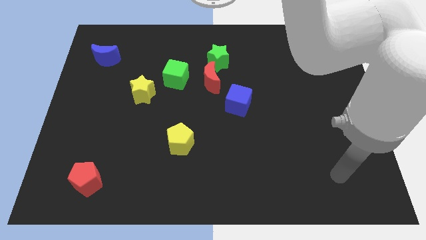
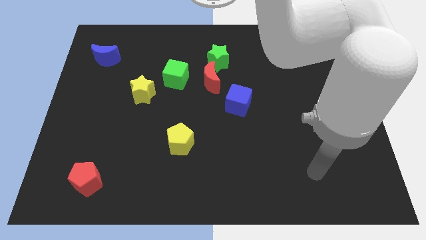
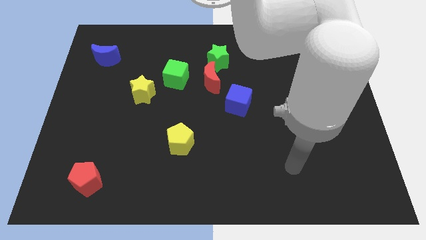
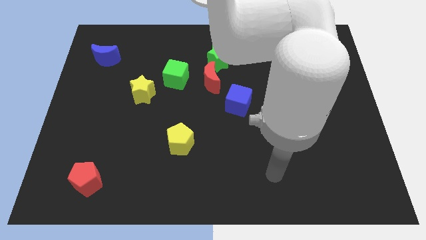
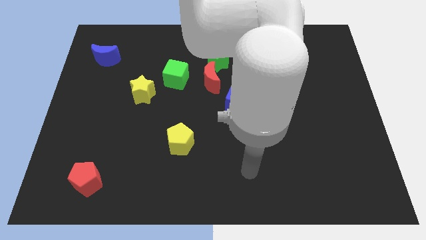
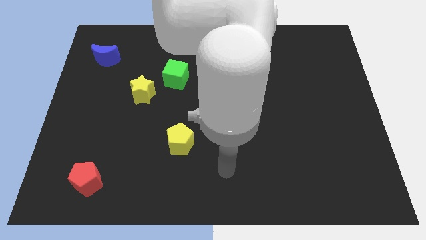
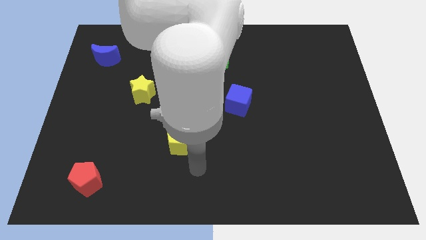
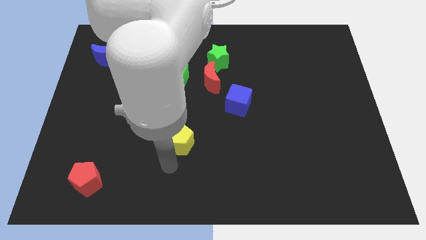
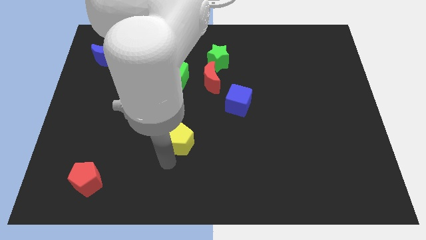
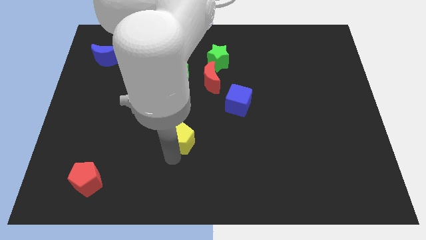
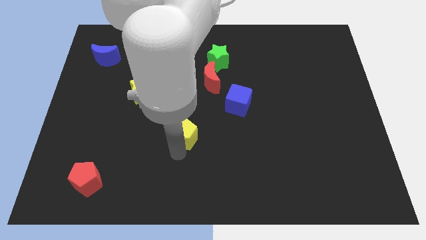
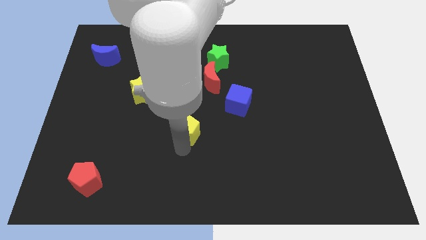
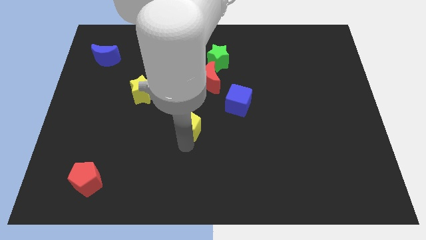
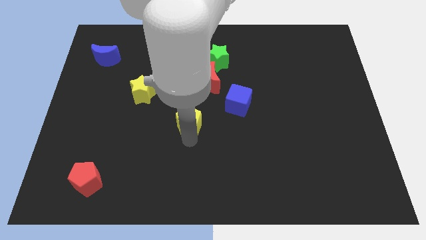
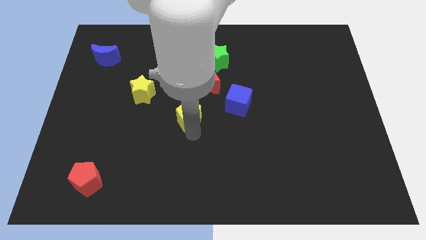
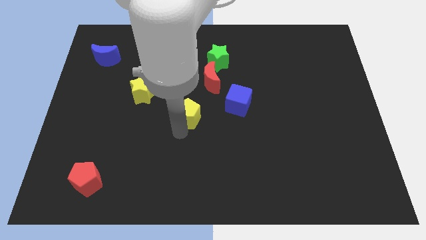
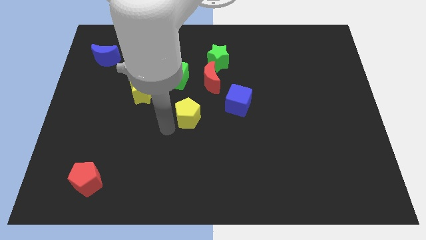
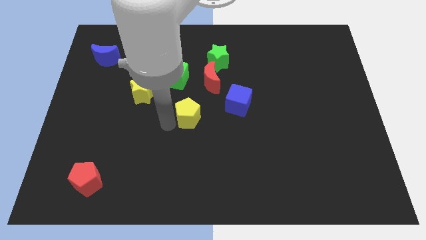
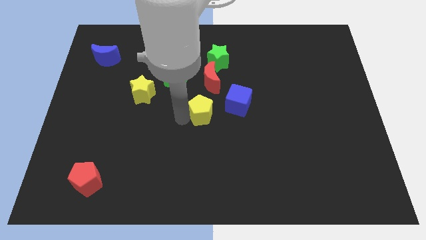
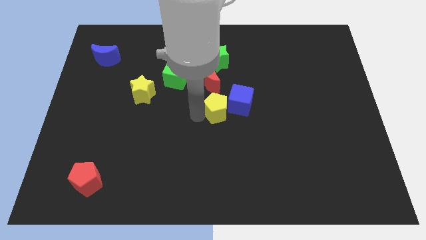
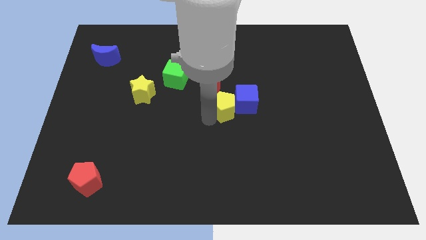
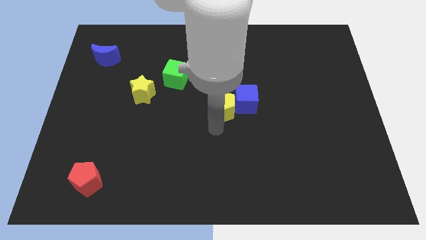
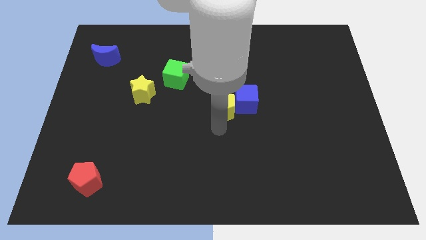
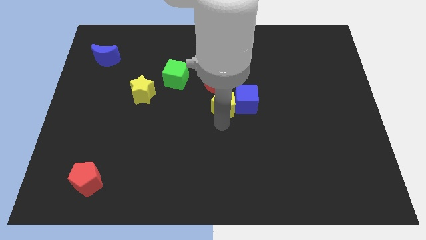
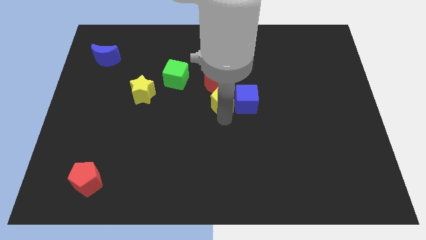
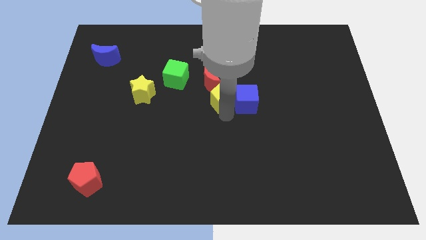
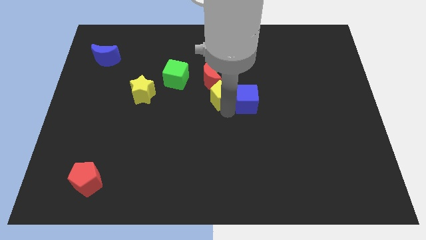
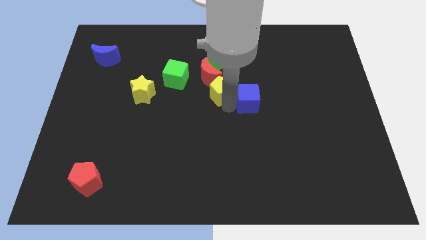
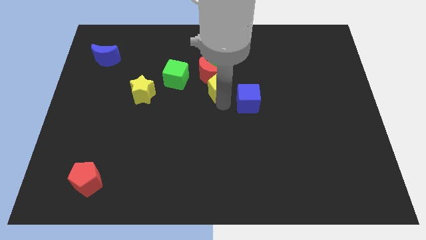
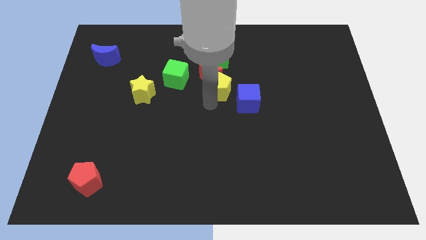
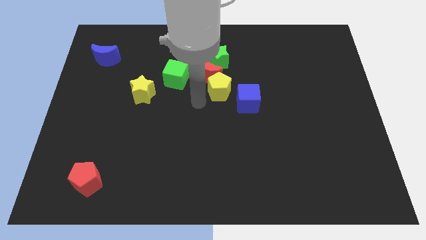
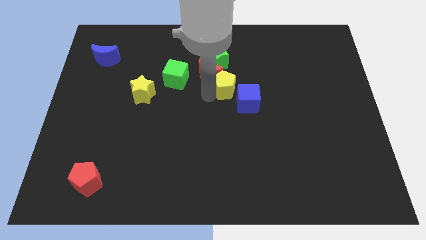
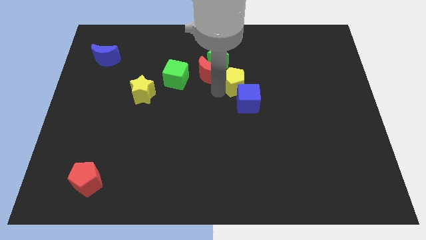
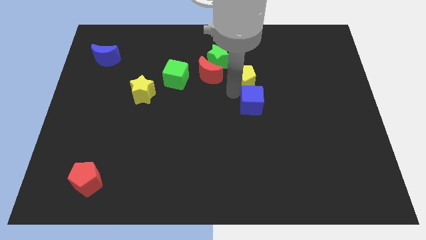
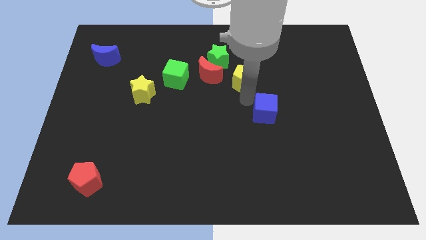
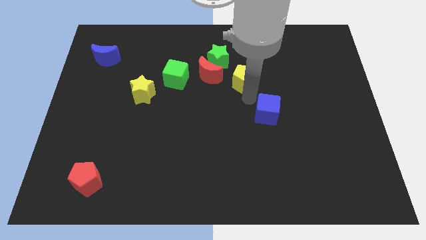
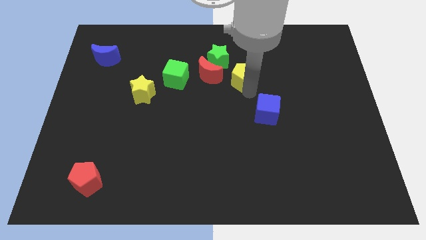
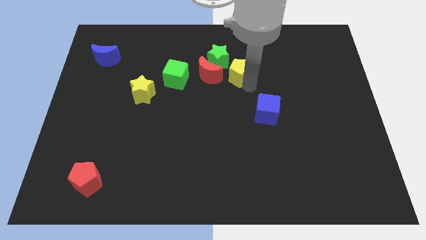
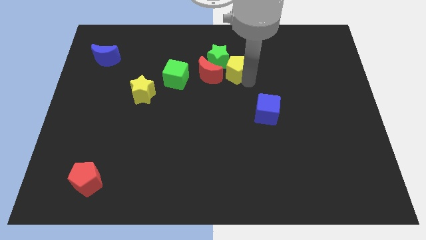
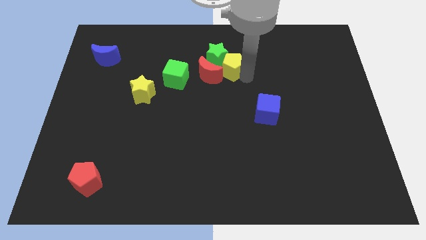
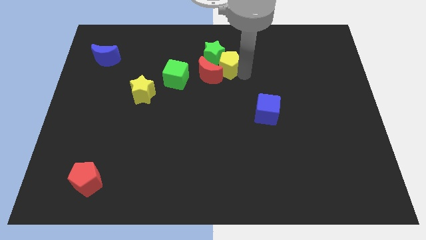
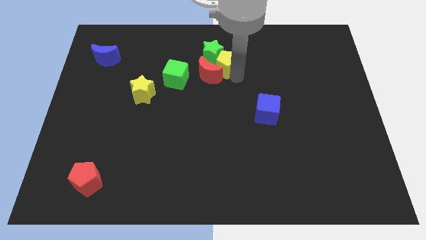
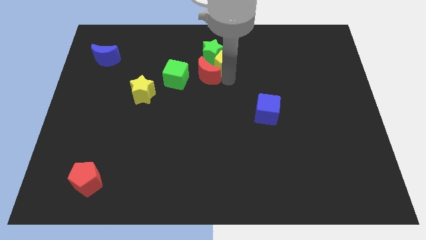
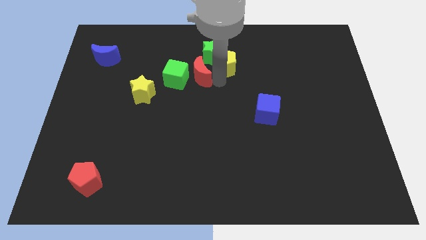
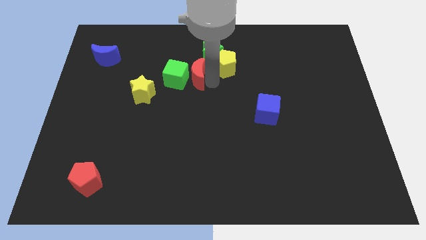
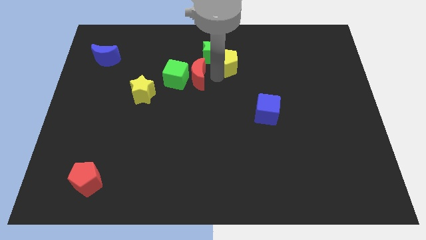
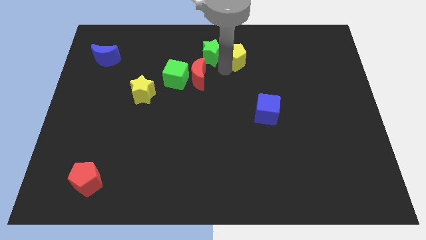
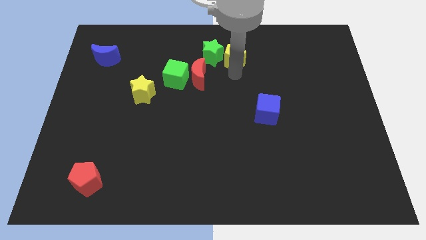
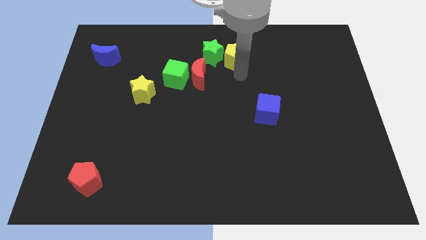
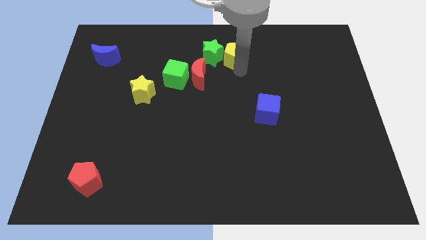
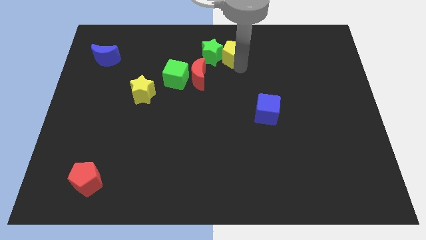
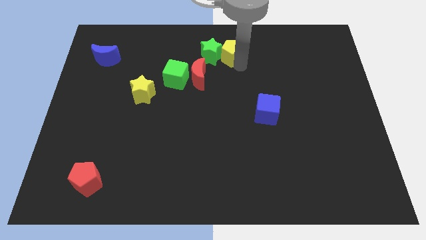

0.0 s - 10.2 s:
put the yellow pentagon to the top
